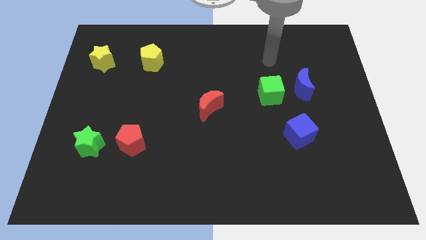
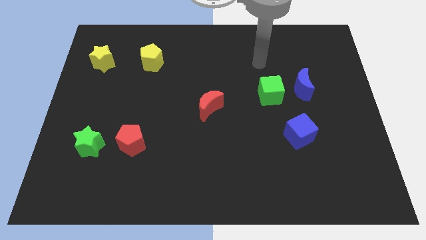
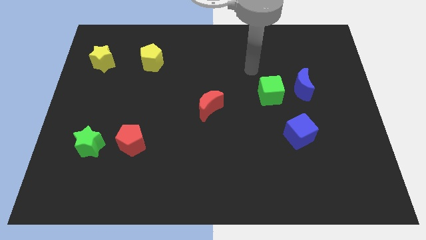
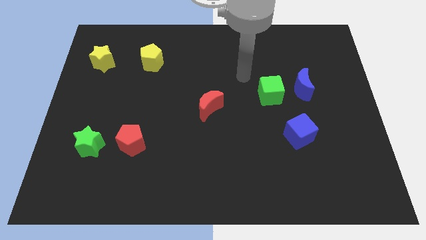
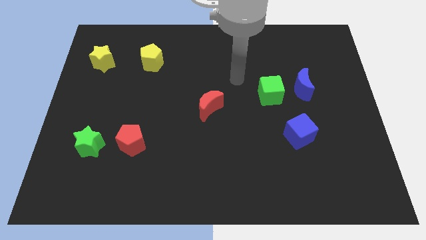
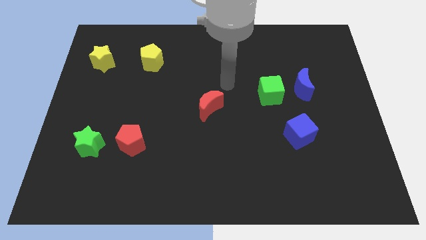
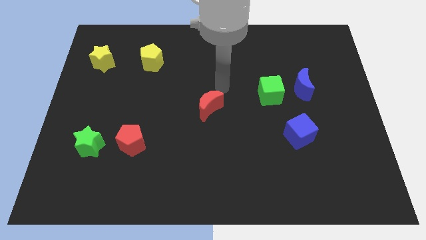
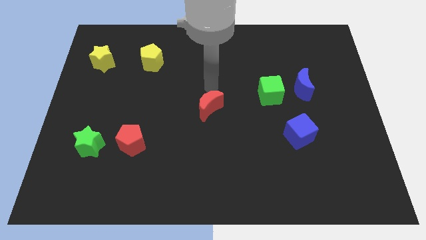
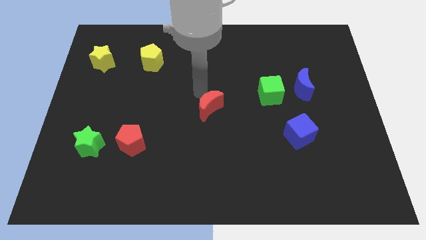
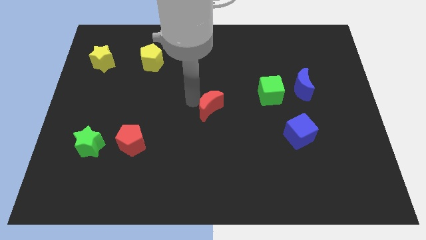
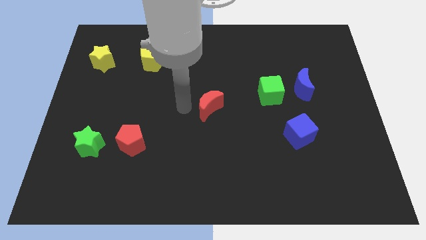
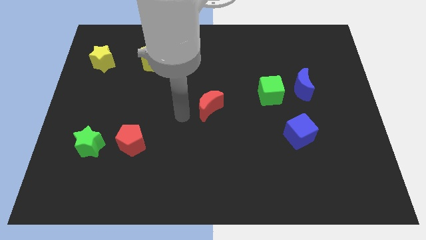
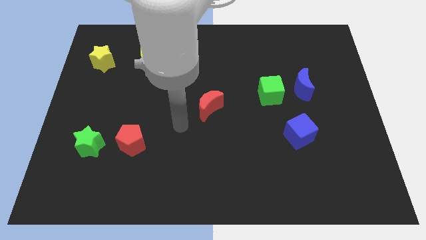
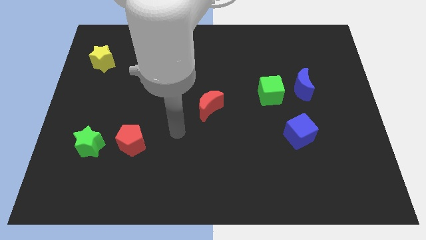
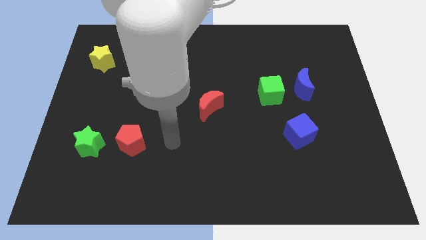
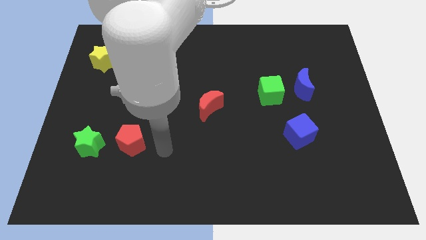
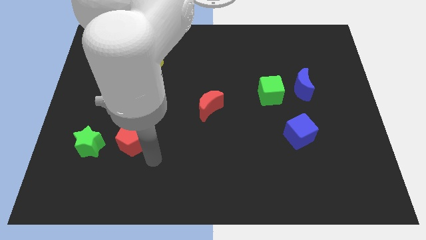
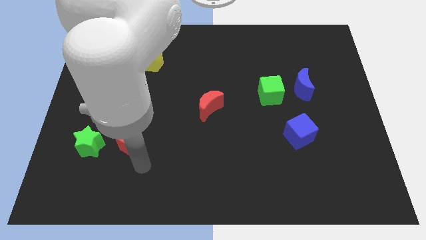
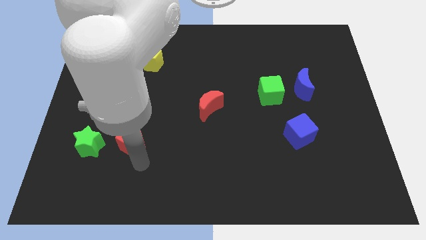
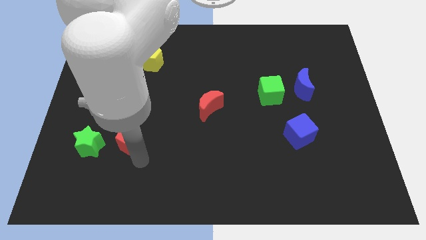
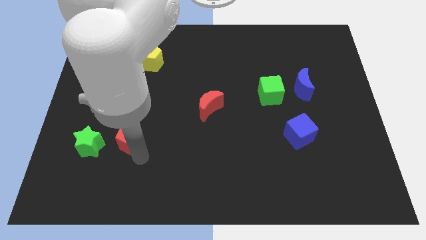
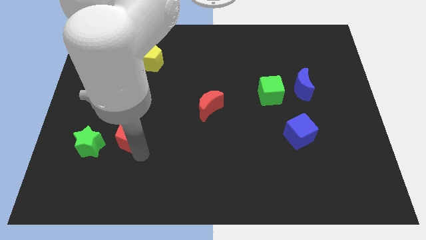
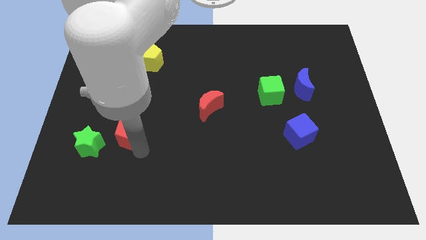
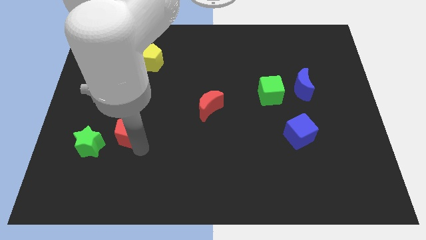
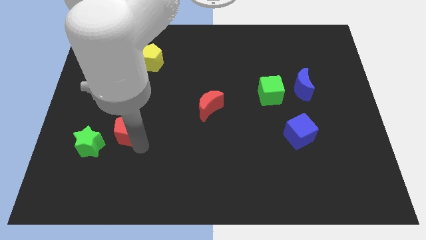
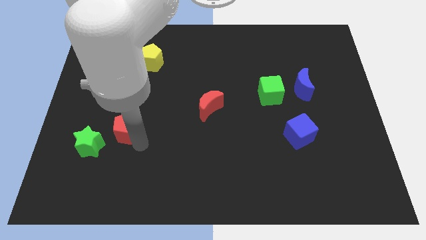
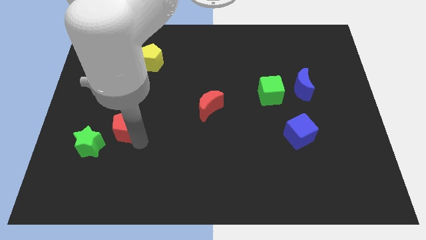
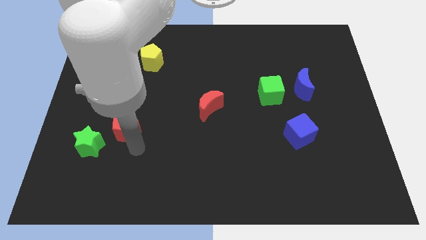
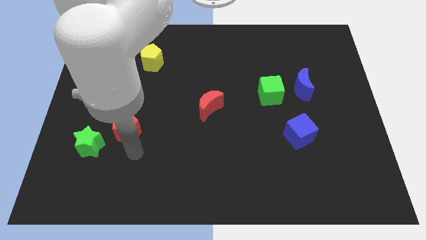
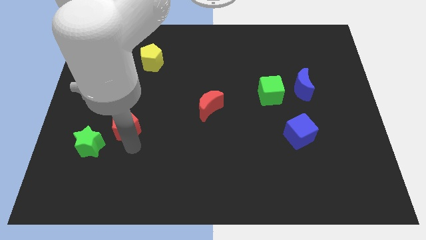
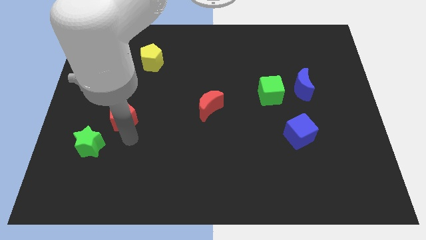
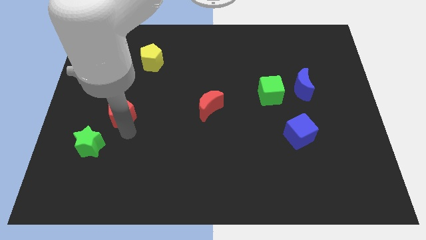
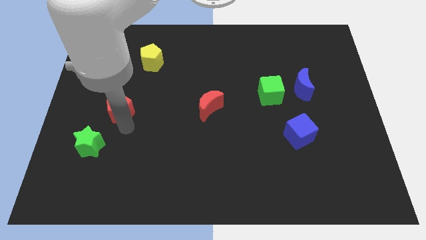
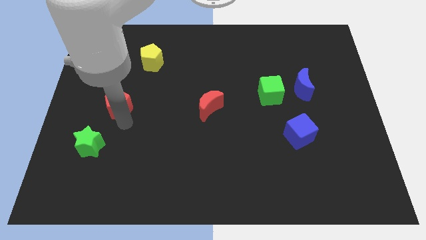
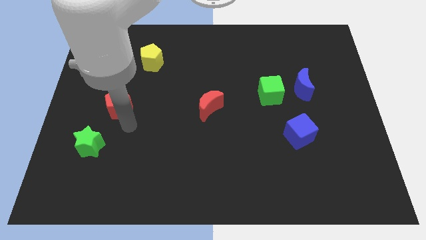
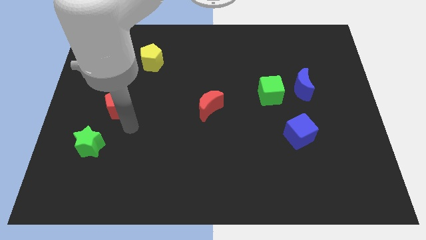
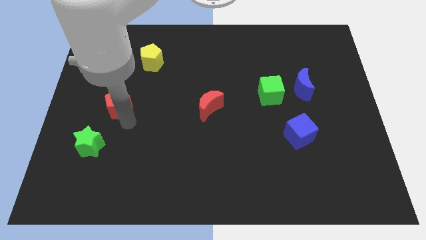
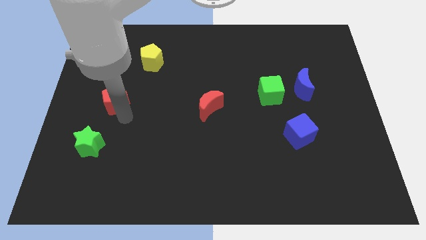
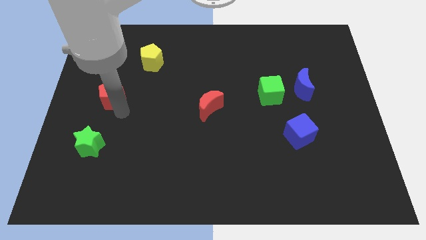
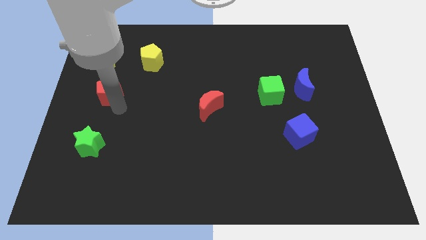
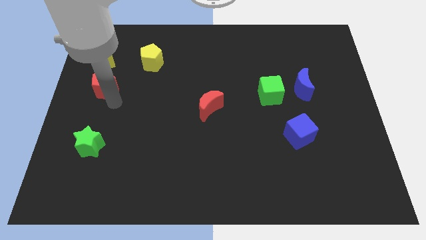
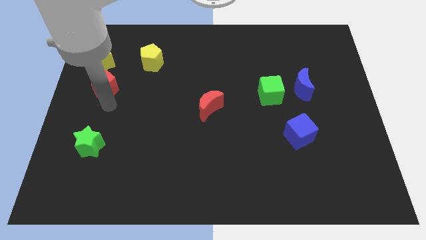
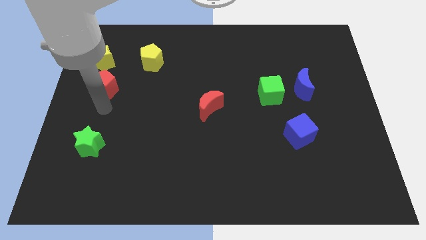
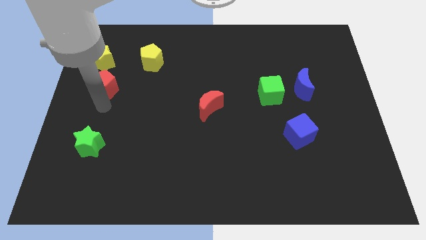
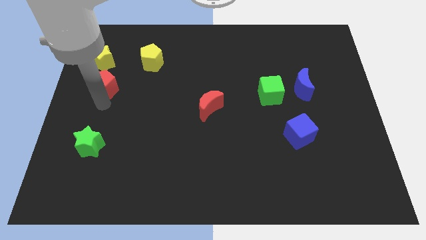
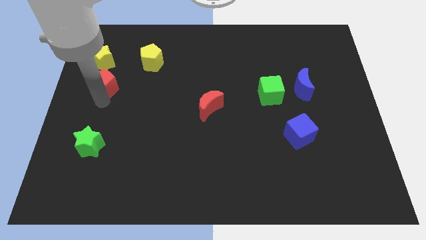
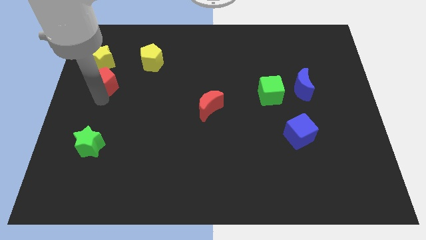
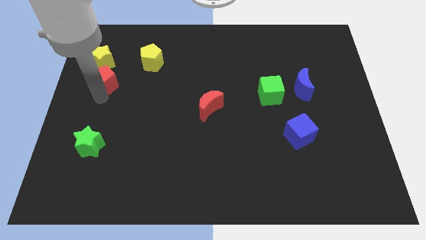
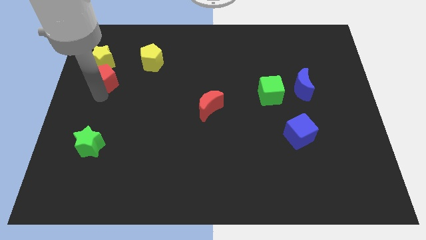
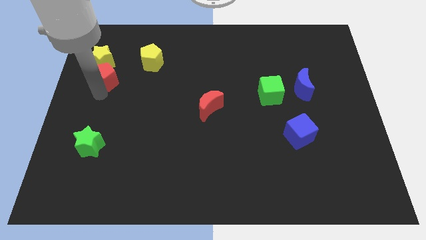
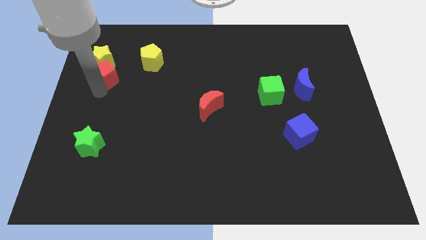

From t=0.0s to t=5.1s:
push the red pentagon to the yellow star

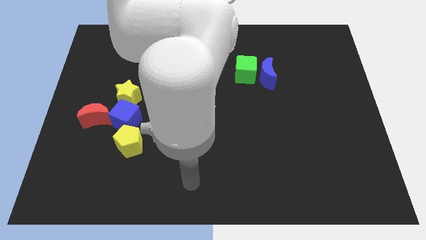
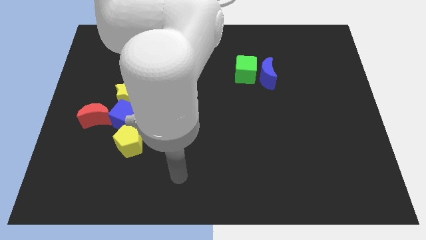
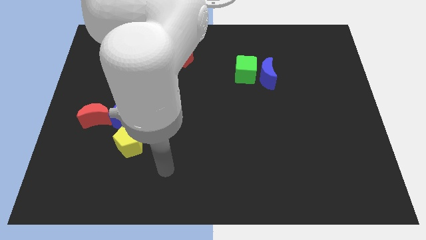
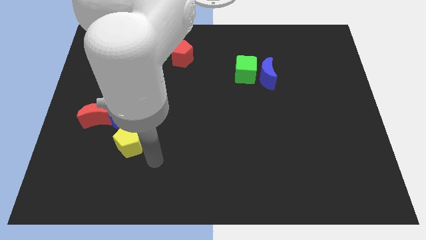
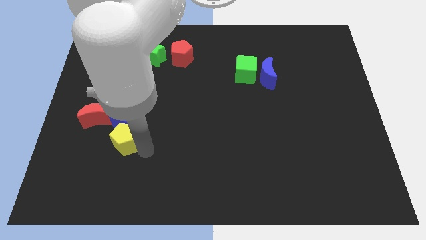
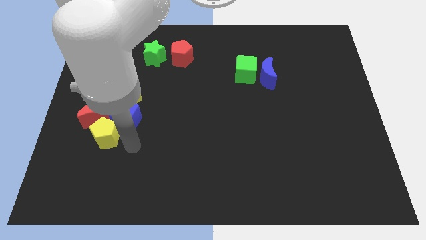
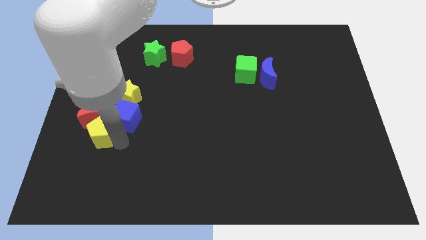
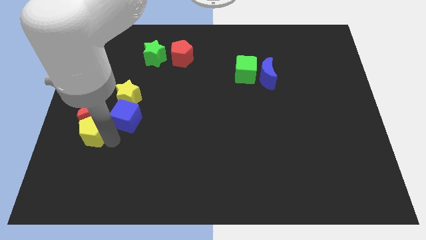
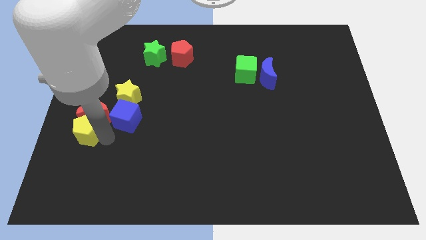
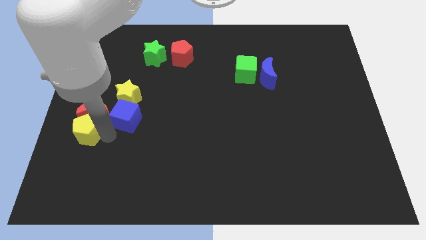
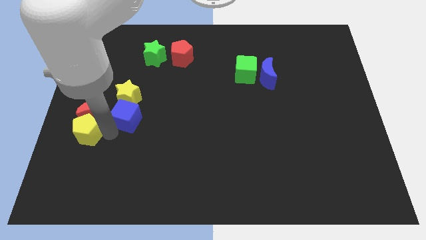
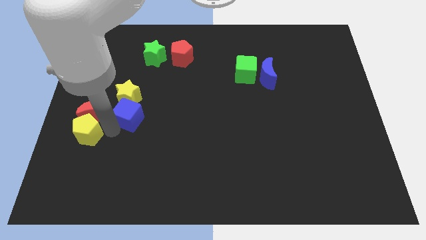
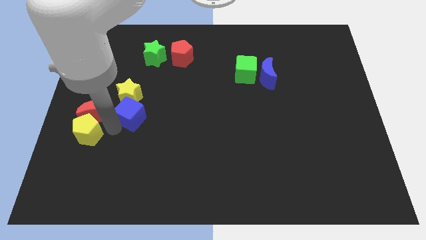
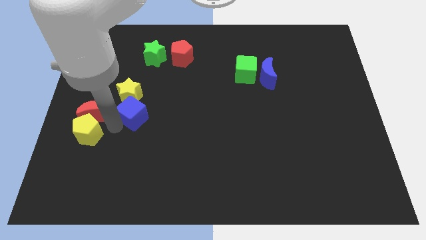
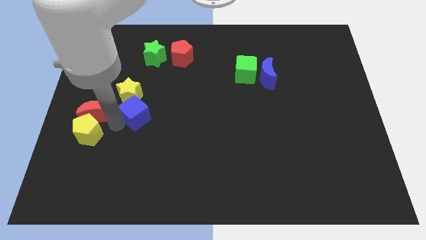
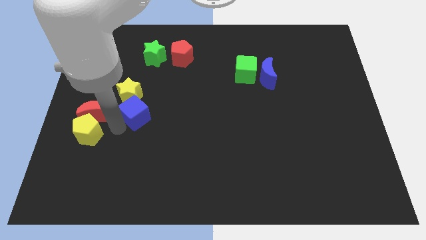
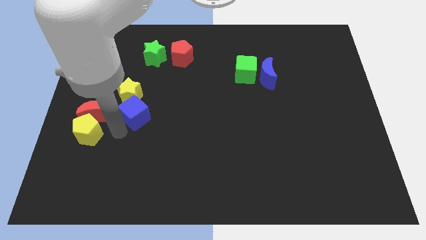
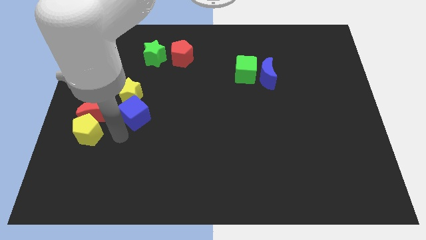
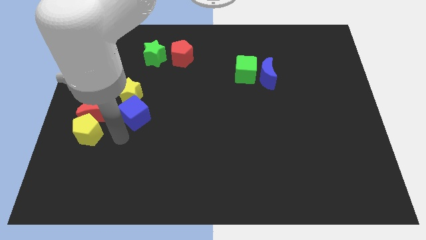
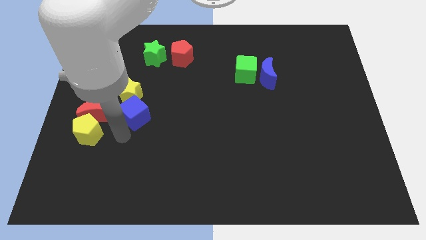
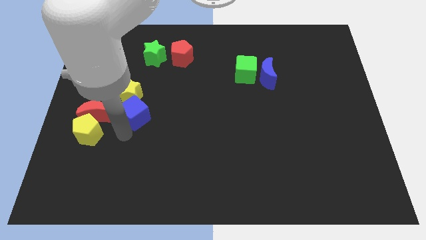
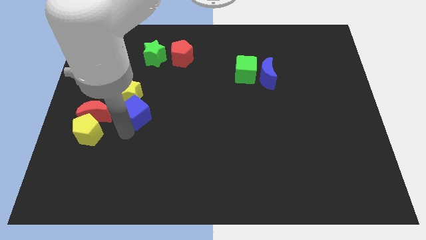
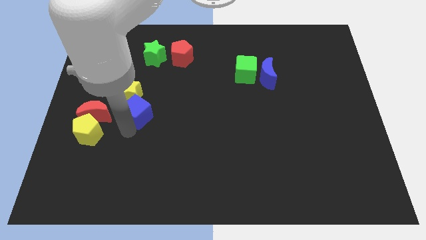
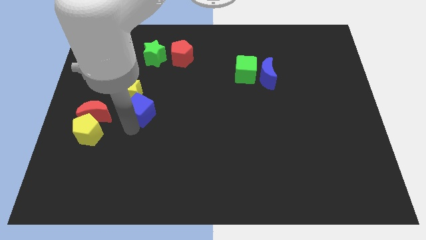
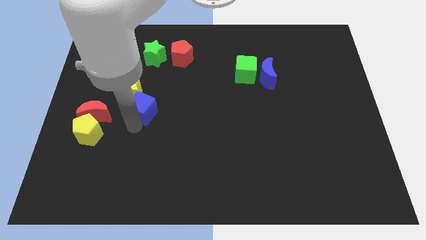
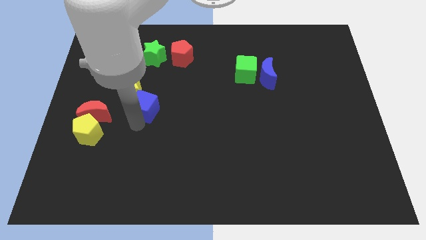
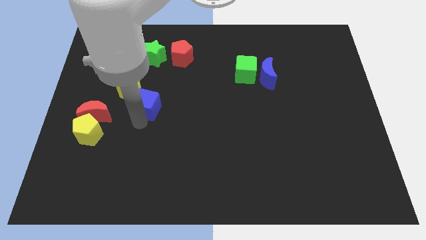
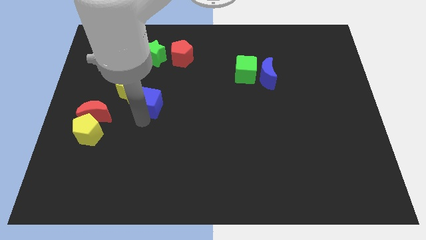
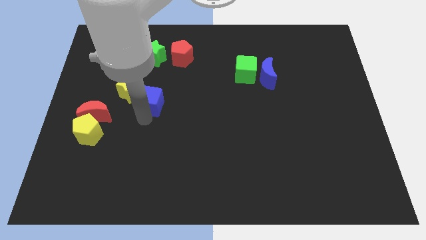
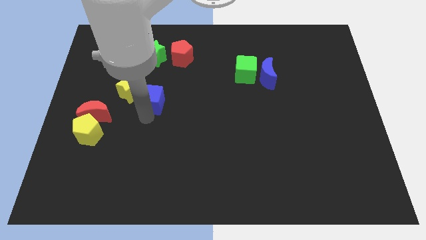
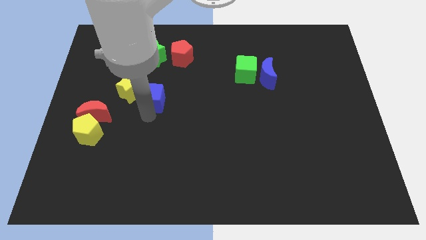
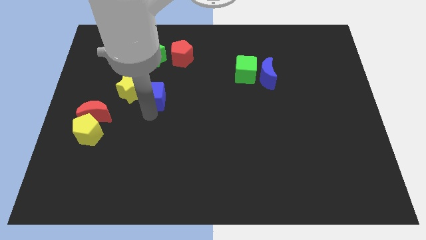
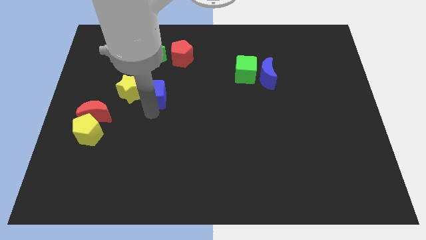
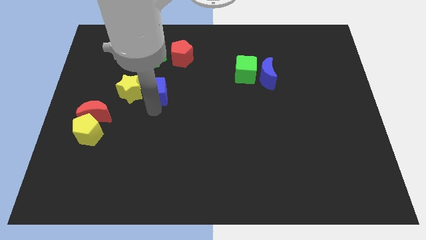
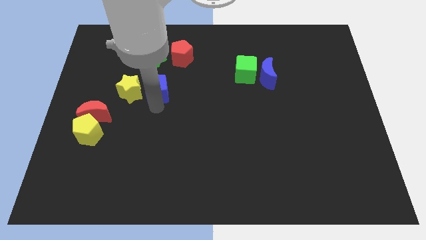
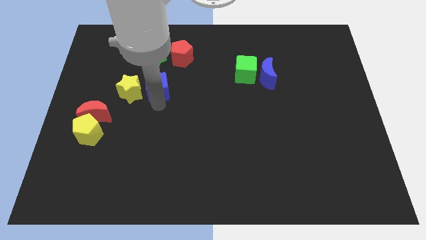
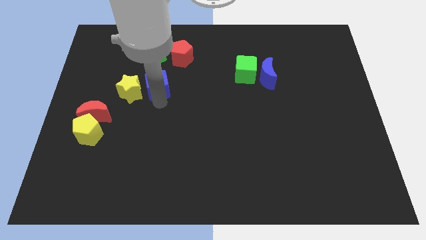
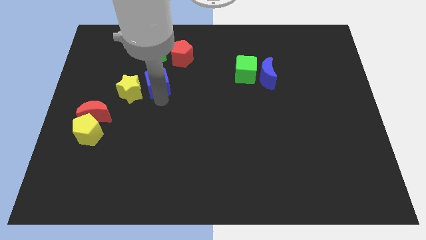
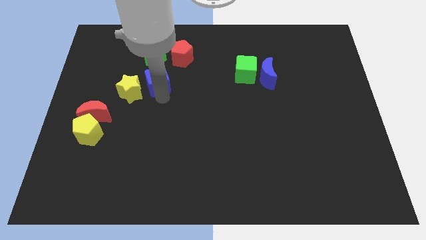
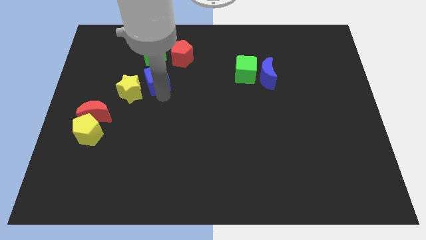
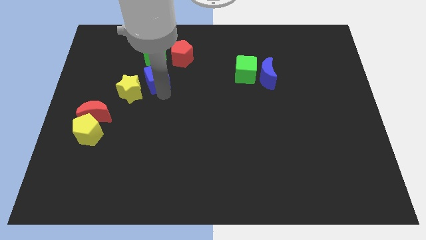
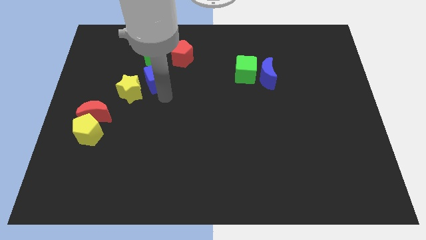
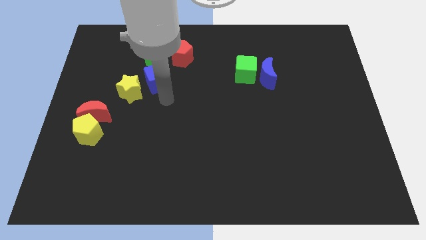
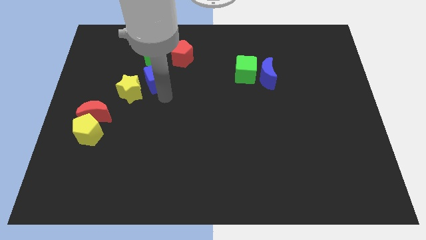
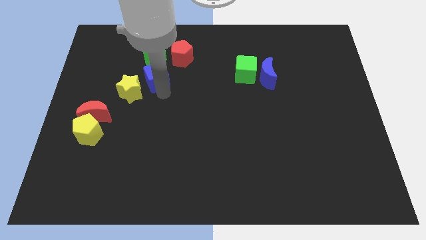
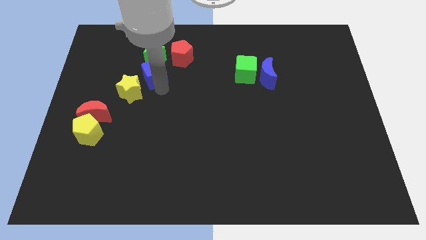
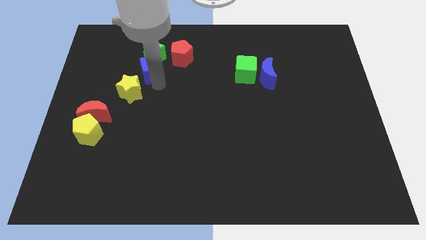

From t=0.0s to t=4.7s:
move the blue cube towards the green star
